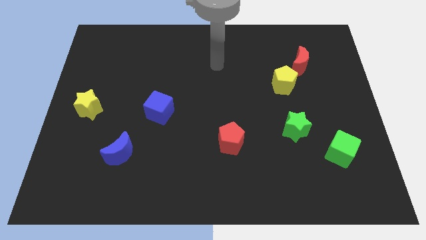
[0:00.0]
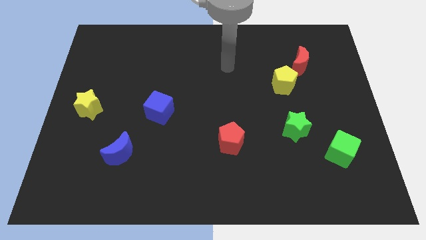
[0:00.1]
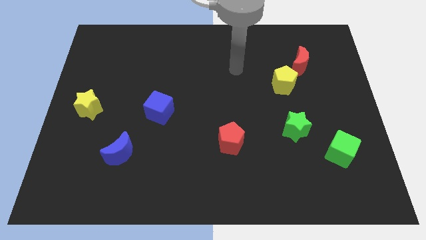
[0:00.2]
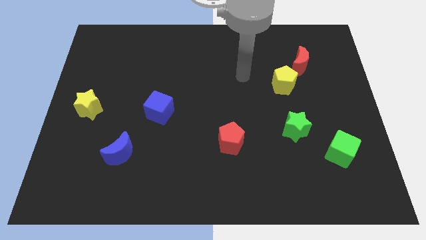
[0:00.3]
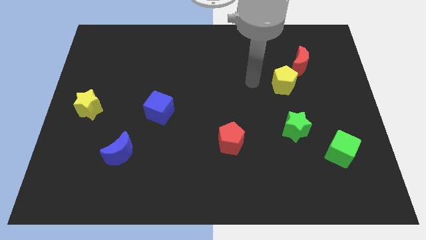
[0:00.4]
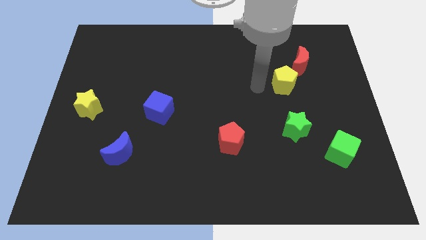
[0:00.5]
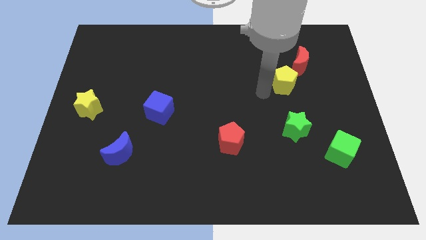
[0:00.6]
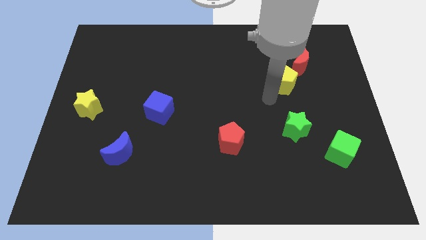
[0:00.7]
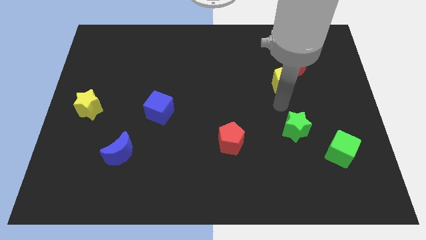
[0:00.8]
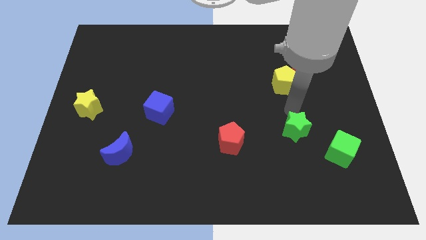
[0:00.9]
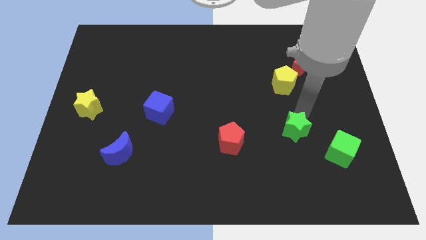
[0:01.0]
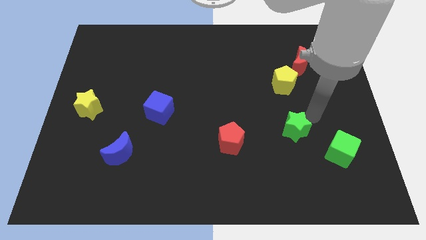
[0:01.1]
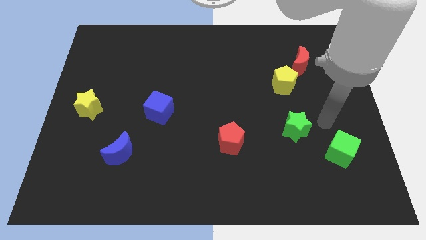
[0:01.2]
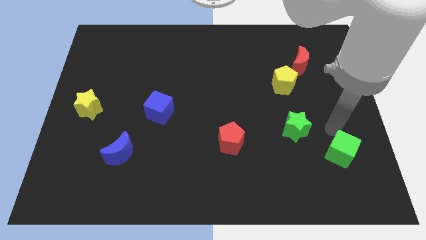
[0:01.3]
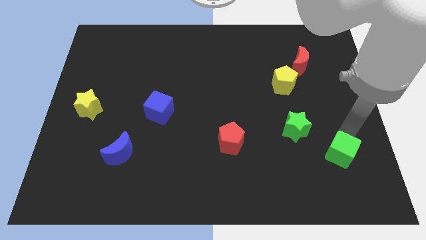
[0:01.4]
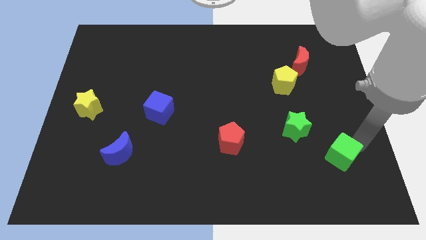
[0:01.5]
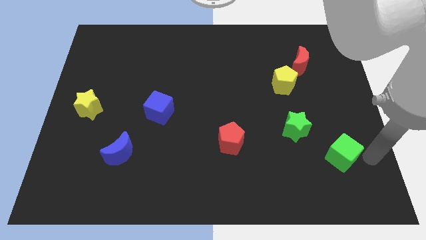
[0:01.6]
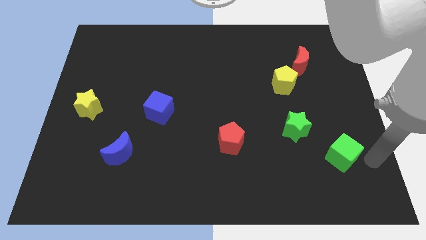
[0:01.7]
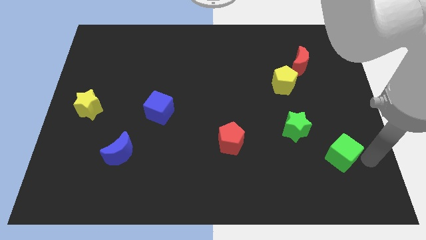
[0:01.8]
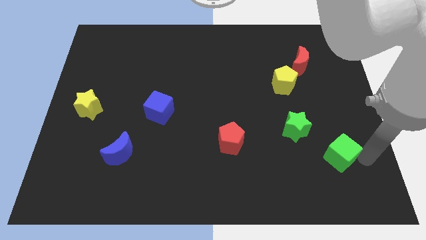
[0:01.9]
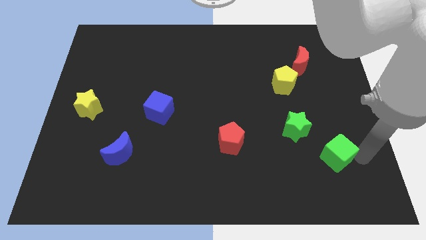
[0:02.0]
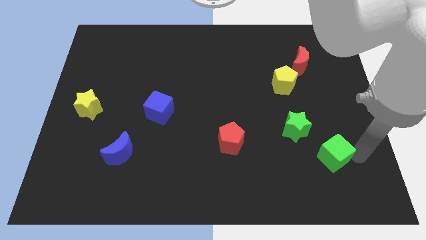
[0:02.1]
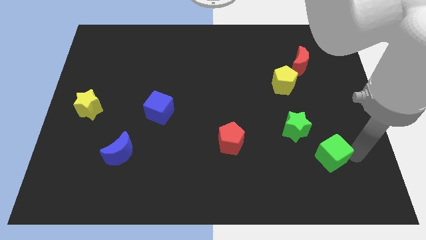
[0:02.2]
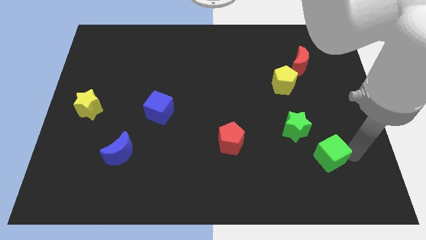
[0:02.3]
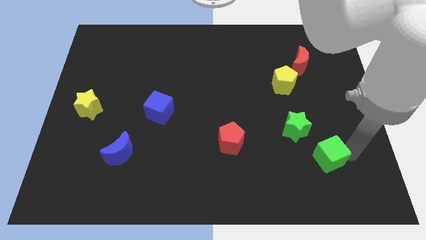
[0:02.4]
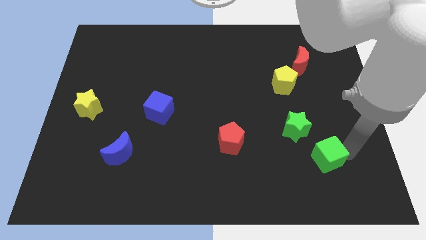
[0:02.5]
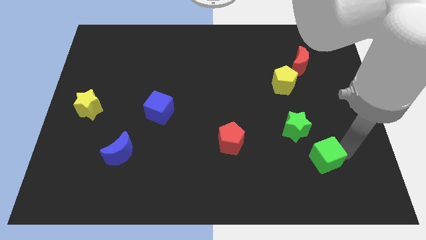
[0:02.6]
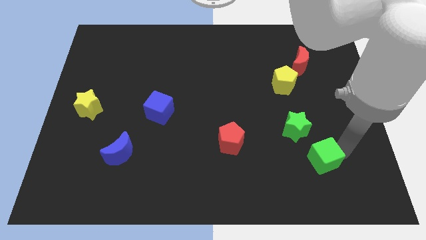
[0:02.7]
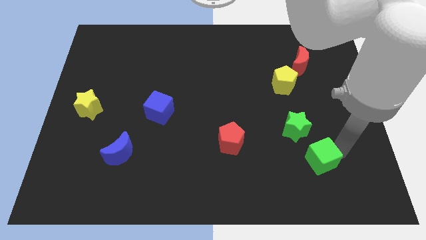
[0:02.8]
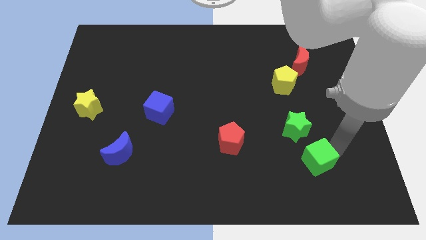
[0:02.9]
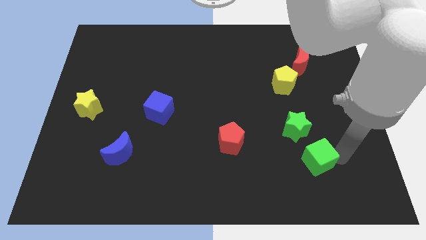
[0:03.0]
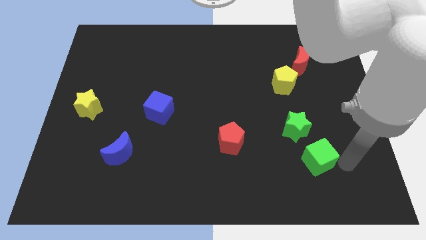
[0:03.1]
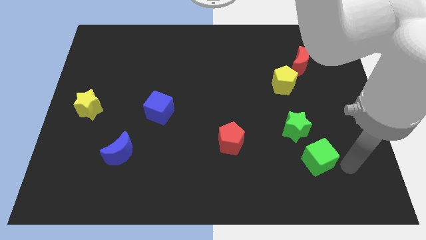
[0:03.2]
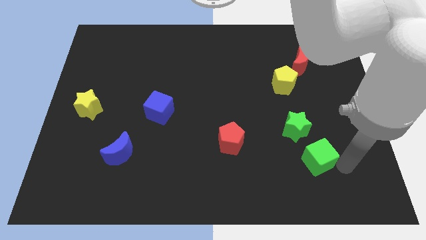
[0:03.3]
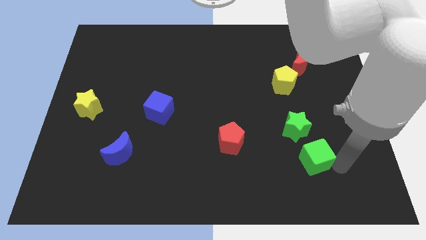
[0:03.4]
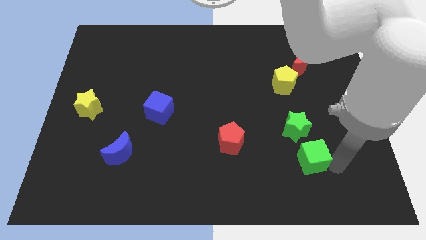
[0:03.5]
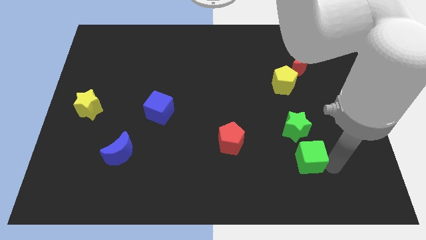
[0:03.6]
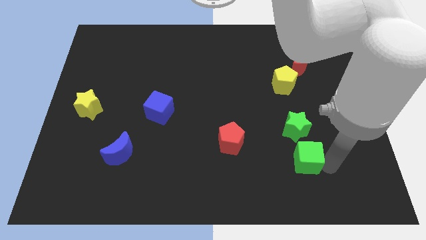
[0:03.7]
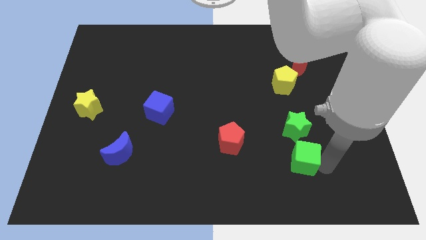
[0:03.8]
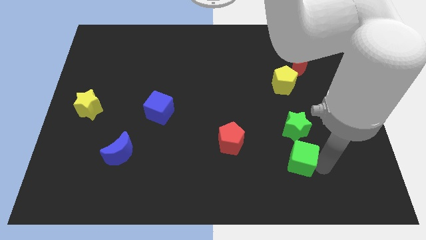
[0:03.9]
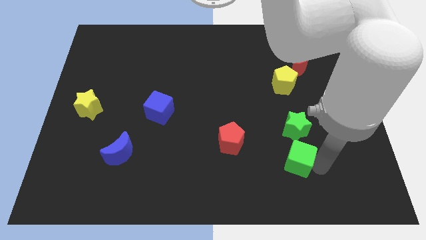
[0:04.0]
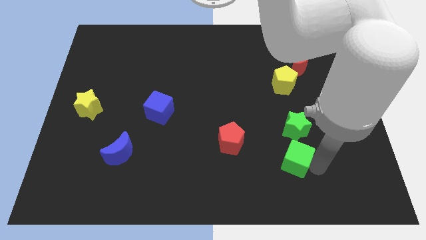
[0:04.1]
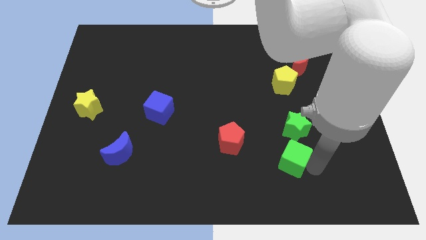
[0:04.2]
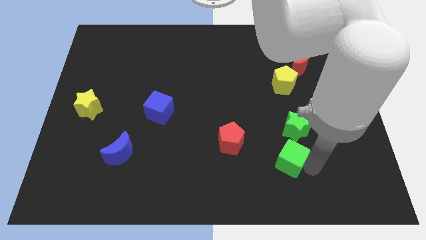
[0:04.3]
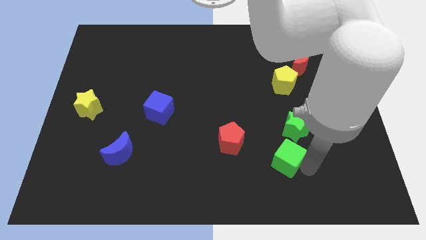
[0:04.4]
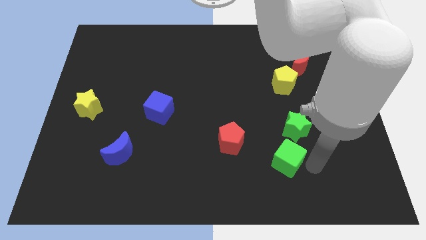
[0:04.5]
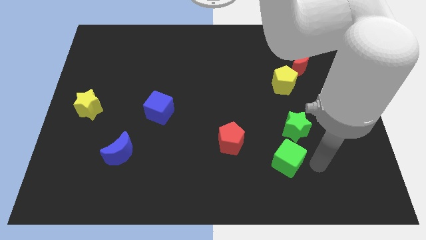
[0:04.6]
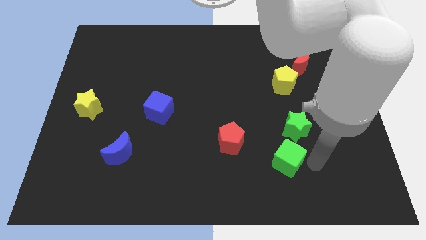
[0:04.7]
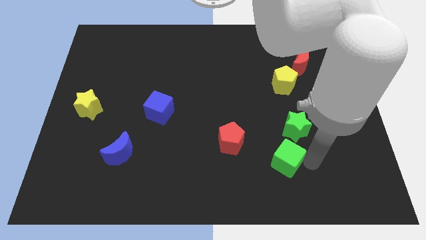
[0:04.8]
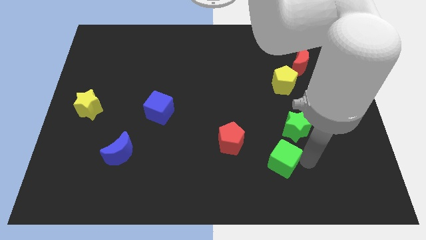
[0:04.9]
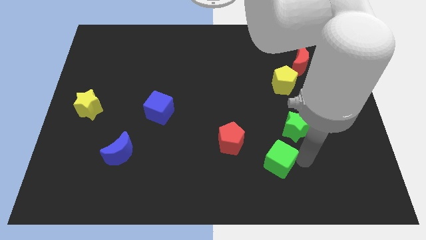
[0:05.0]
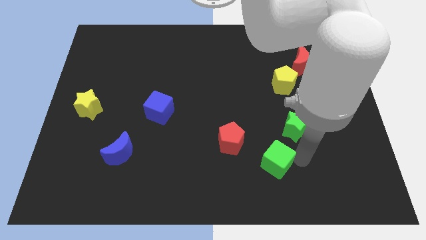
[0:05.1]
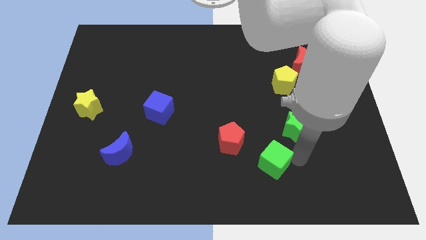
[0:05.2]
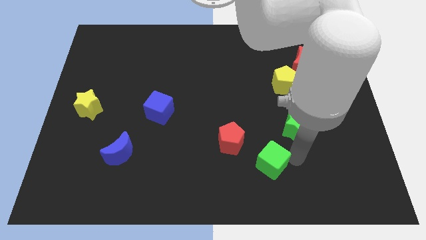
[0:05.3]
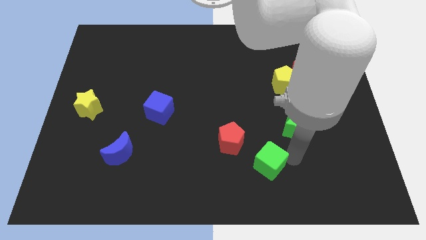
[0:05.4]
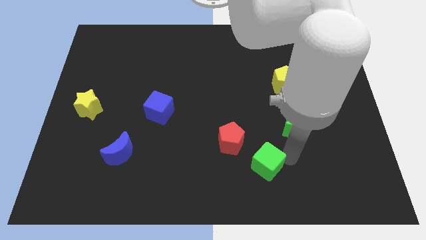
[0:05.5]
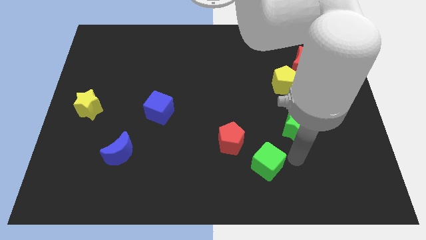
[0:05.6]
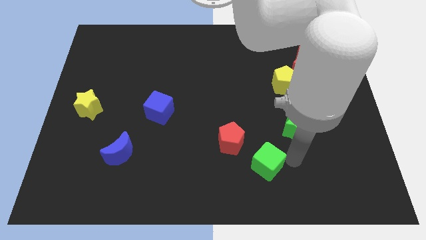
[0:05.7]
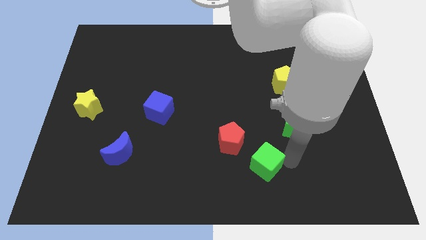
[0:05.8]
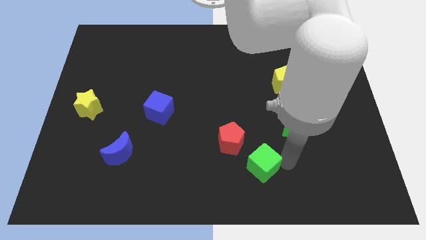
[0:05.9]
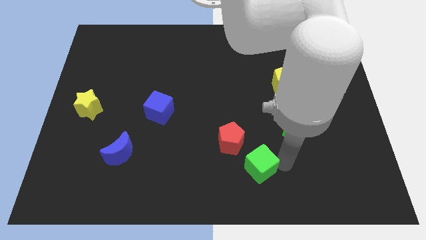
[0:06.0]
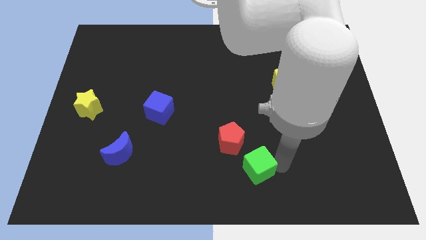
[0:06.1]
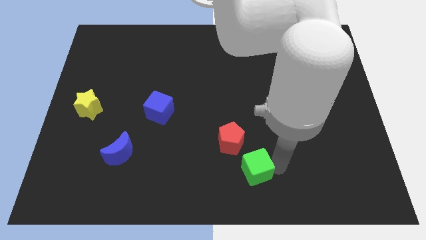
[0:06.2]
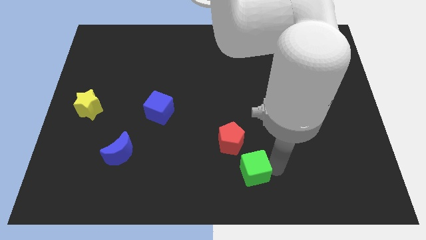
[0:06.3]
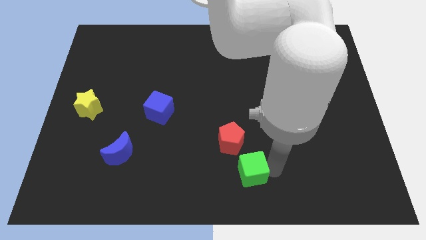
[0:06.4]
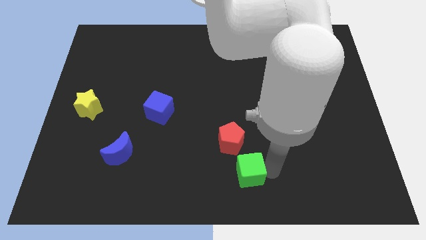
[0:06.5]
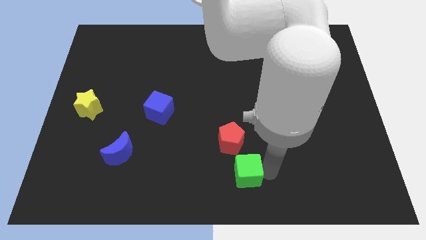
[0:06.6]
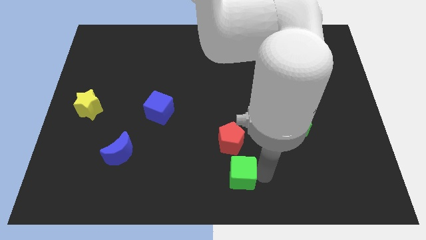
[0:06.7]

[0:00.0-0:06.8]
move the green cube to the left

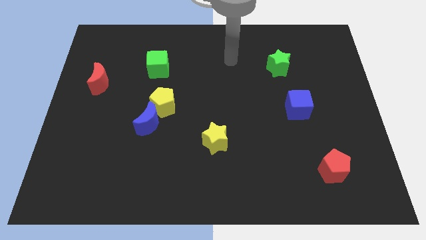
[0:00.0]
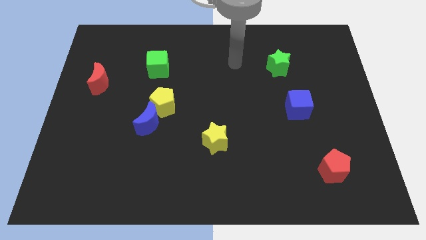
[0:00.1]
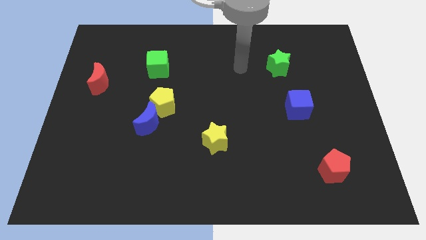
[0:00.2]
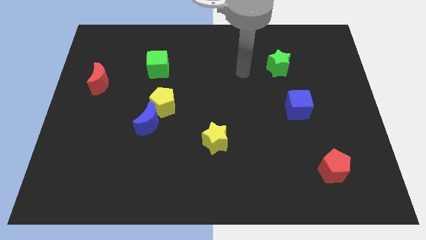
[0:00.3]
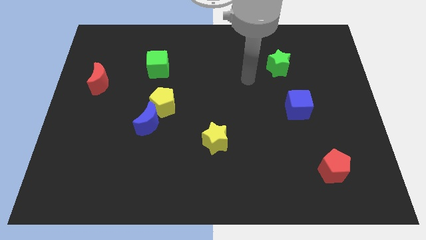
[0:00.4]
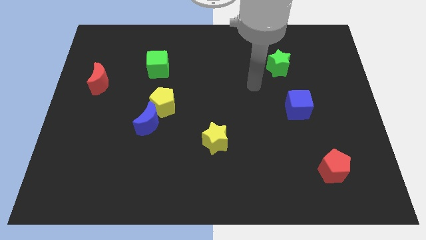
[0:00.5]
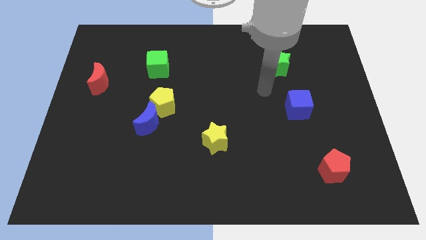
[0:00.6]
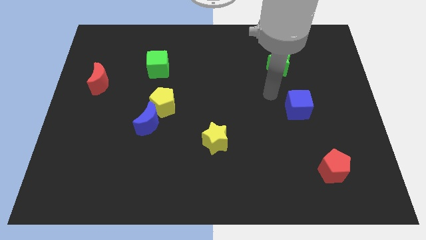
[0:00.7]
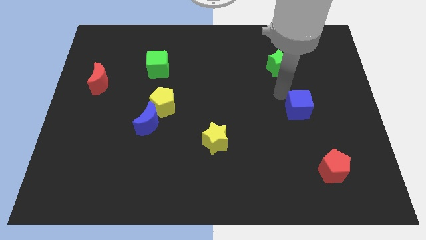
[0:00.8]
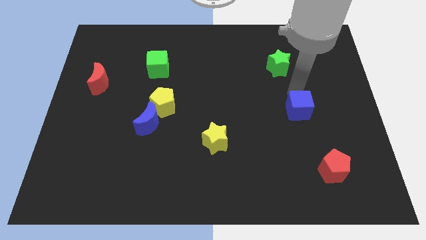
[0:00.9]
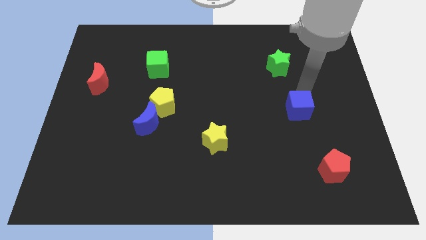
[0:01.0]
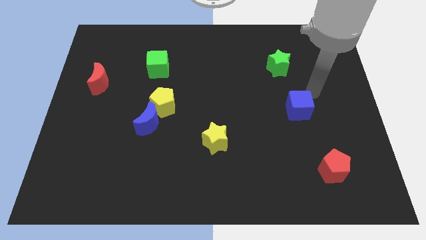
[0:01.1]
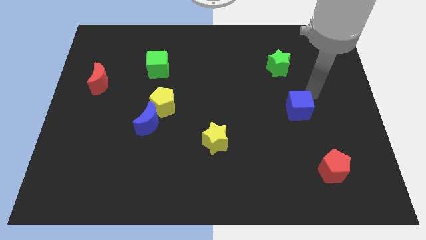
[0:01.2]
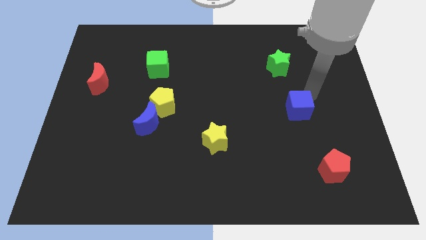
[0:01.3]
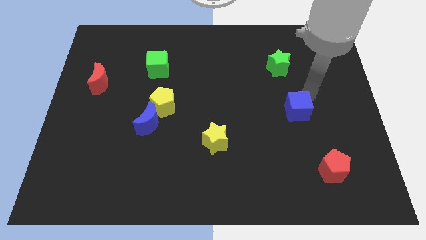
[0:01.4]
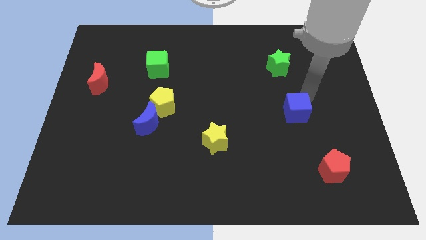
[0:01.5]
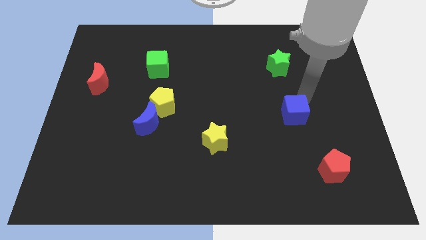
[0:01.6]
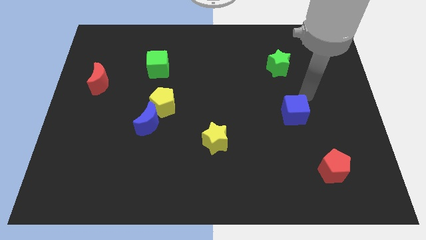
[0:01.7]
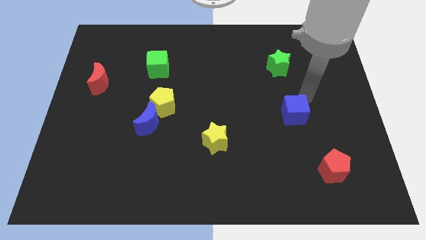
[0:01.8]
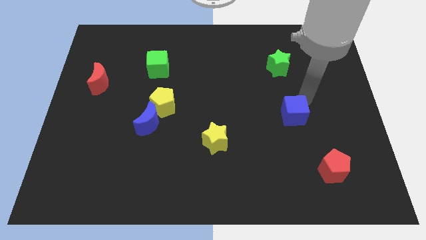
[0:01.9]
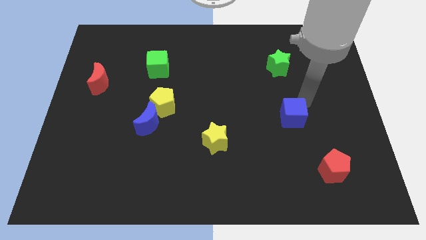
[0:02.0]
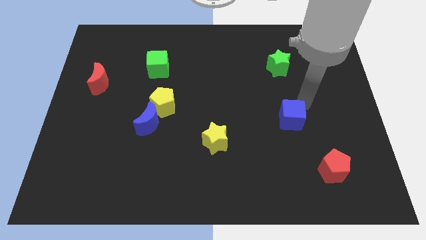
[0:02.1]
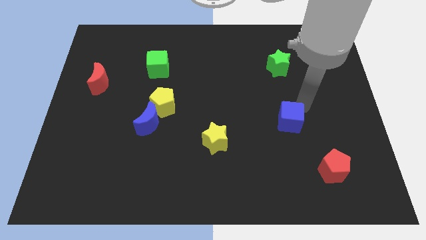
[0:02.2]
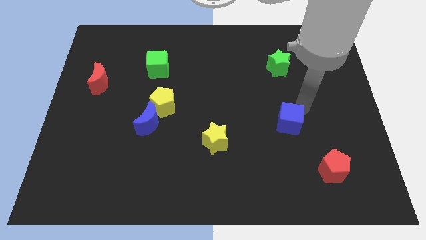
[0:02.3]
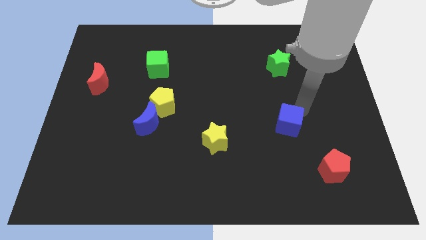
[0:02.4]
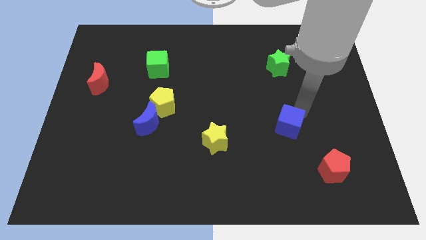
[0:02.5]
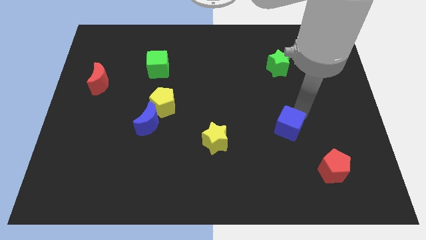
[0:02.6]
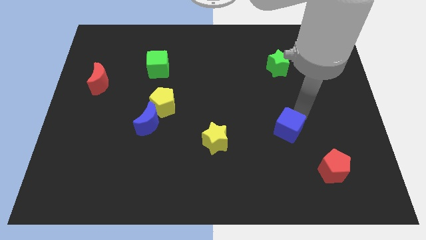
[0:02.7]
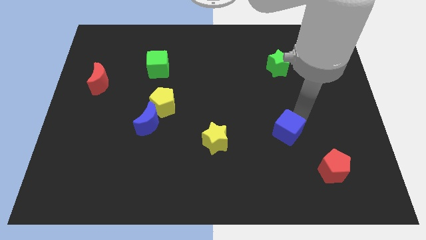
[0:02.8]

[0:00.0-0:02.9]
move the blue cube downwards and to the left a little bit
